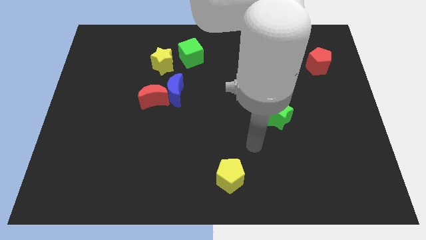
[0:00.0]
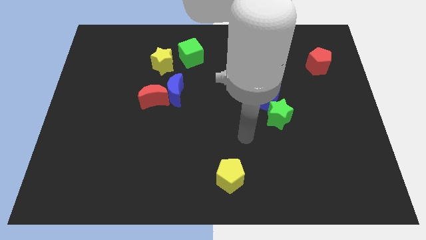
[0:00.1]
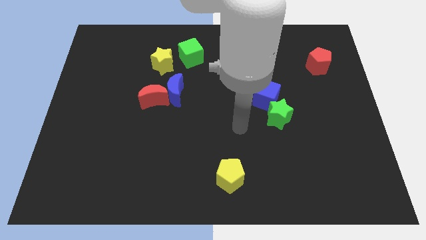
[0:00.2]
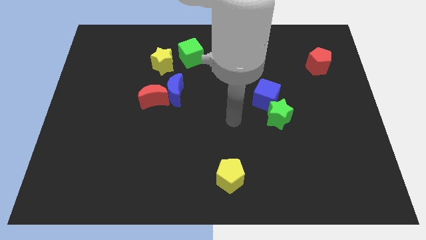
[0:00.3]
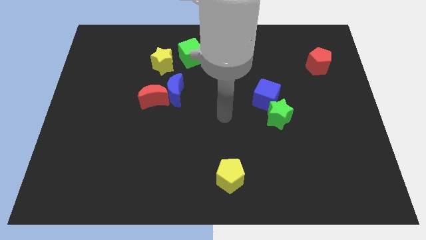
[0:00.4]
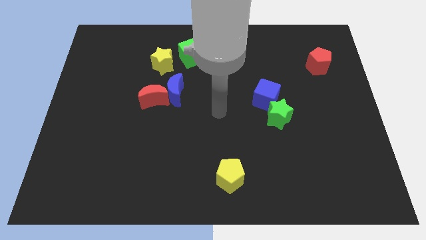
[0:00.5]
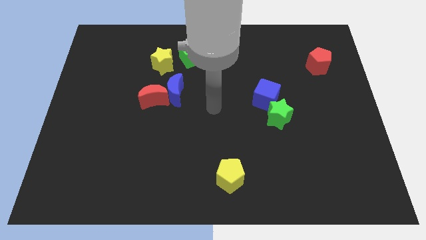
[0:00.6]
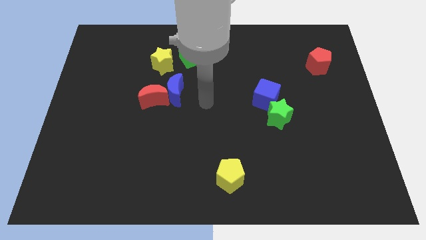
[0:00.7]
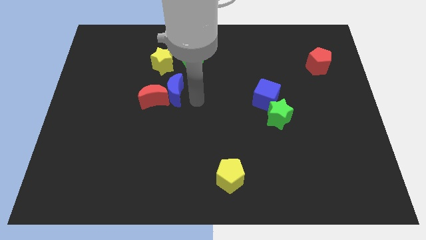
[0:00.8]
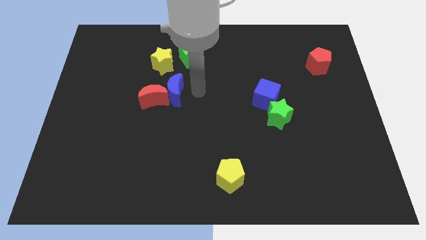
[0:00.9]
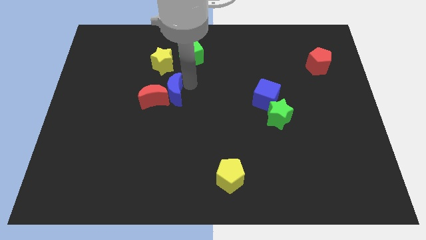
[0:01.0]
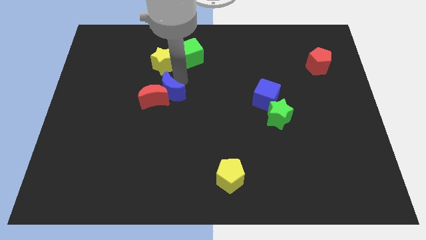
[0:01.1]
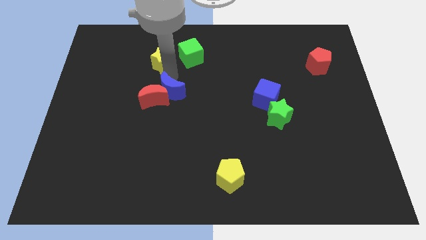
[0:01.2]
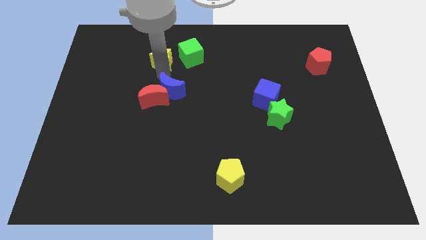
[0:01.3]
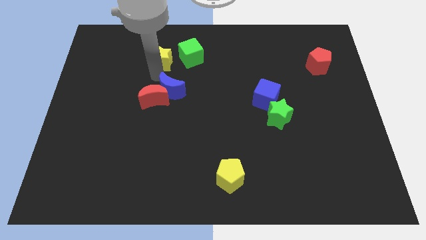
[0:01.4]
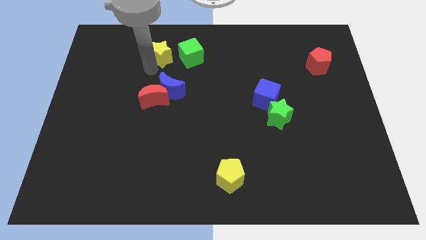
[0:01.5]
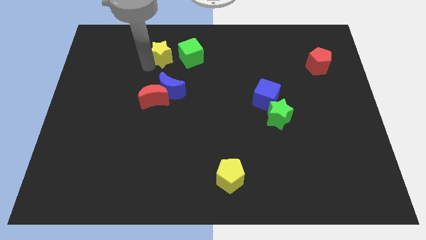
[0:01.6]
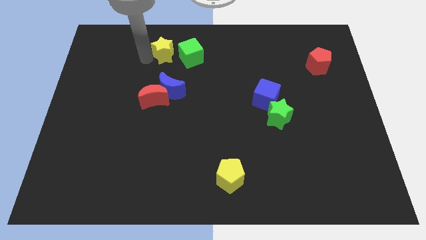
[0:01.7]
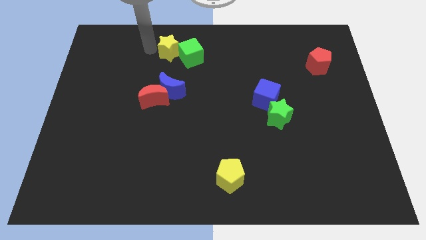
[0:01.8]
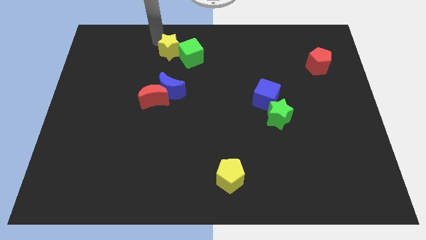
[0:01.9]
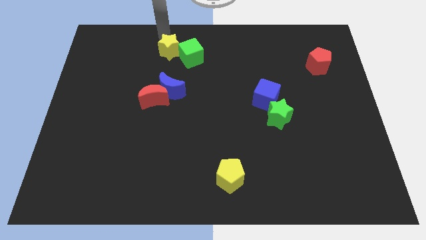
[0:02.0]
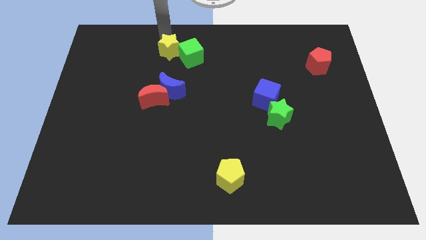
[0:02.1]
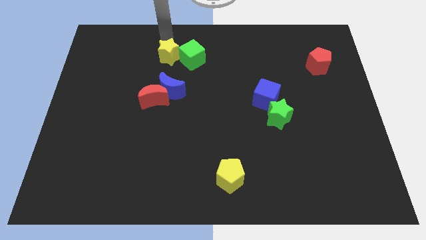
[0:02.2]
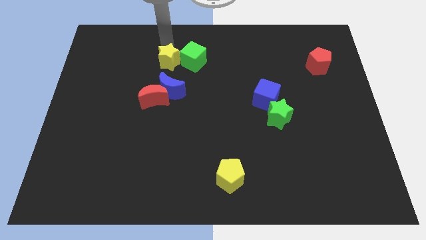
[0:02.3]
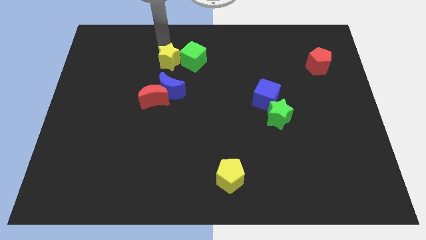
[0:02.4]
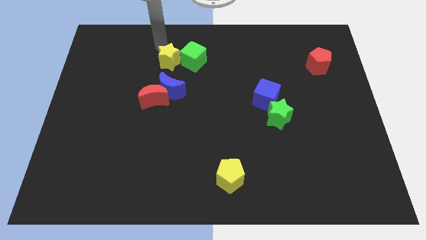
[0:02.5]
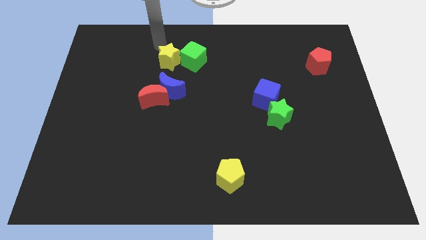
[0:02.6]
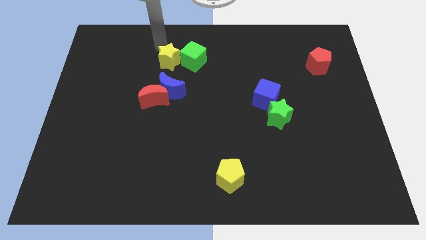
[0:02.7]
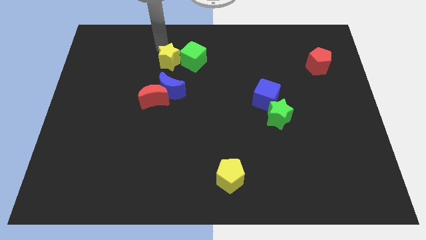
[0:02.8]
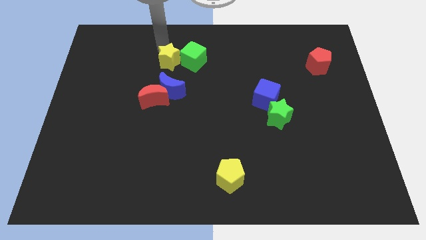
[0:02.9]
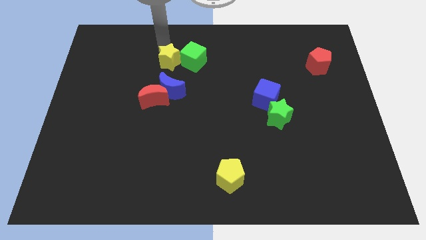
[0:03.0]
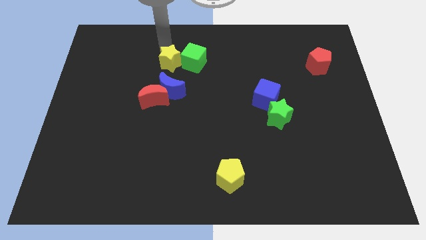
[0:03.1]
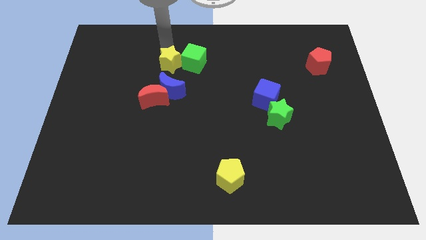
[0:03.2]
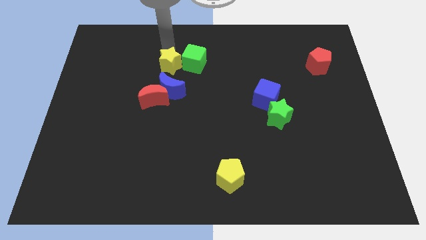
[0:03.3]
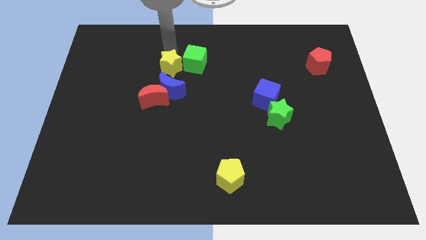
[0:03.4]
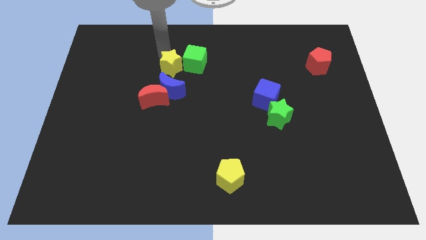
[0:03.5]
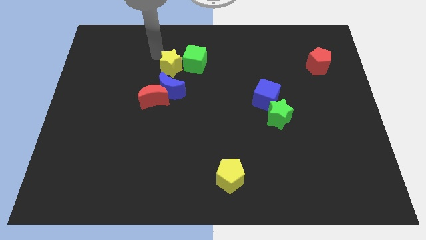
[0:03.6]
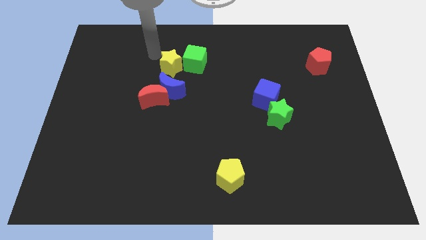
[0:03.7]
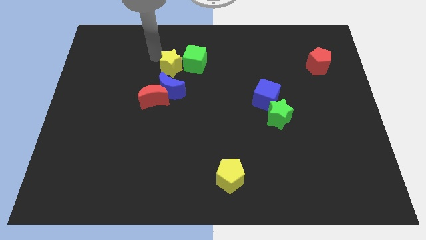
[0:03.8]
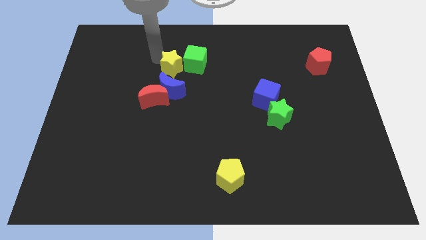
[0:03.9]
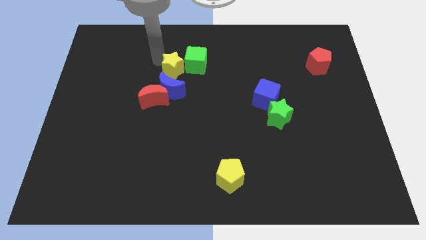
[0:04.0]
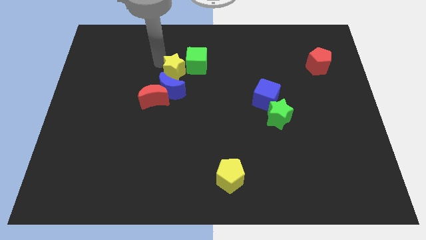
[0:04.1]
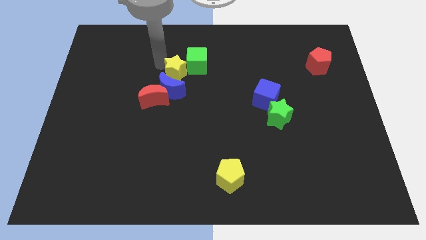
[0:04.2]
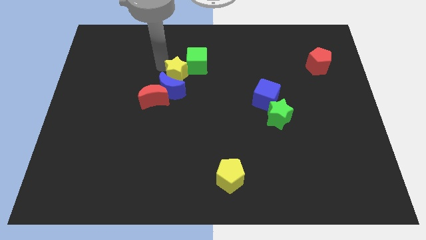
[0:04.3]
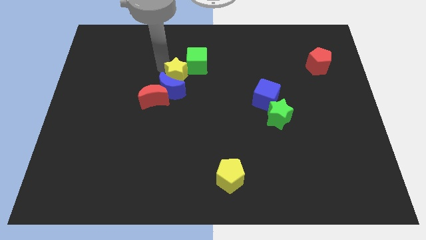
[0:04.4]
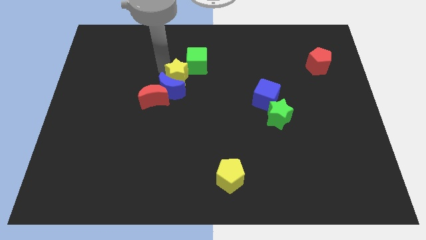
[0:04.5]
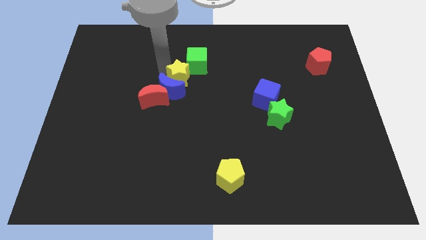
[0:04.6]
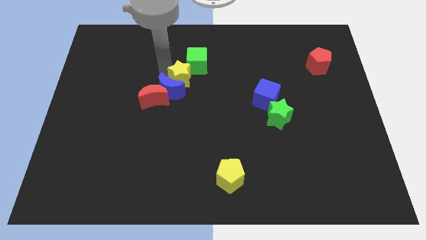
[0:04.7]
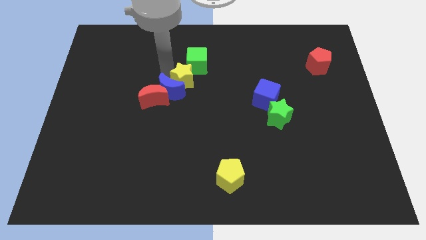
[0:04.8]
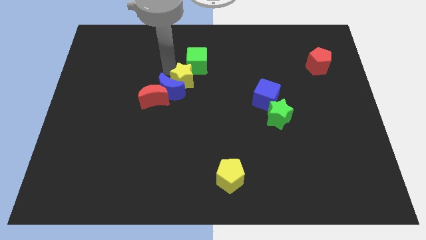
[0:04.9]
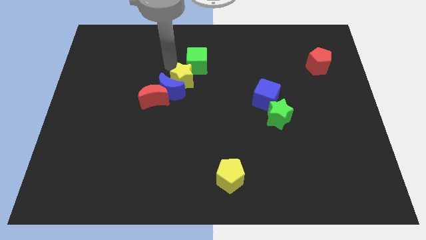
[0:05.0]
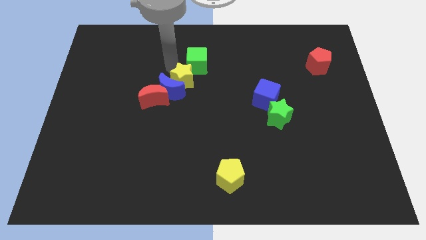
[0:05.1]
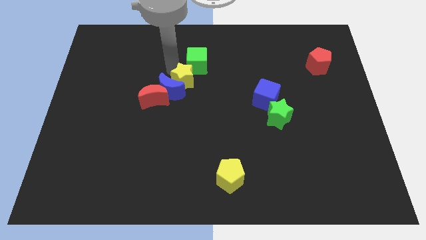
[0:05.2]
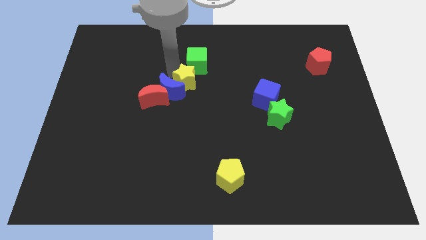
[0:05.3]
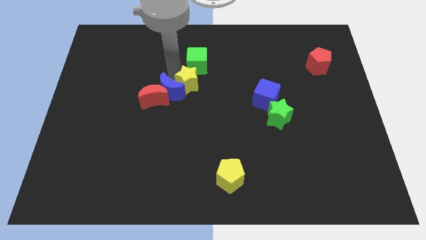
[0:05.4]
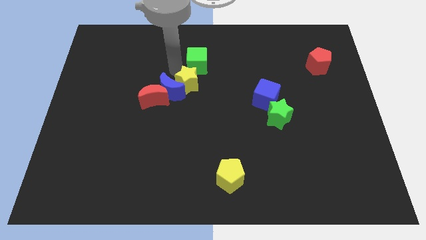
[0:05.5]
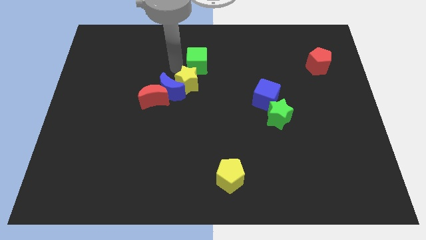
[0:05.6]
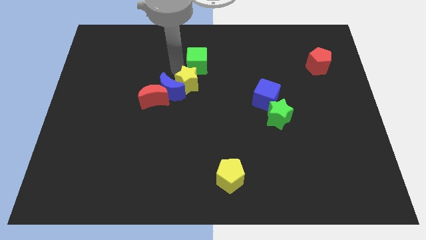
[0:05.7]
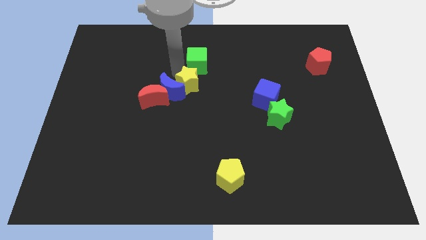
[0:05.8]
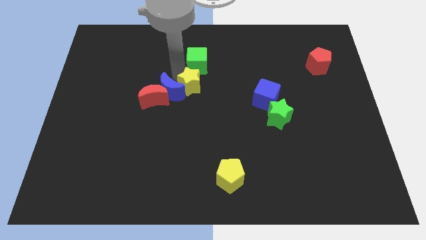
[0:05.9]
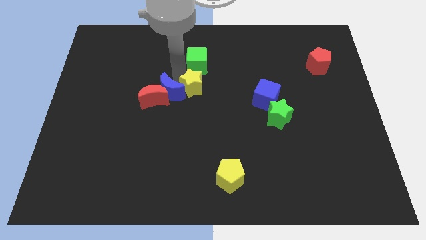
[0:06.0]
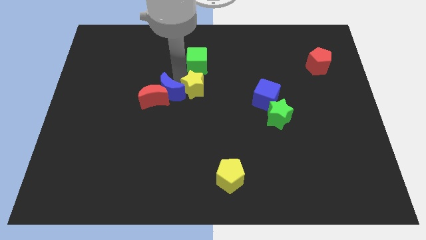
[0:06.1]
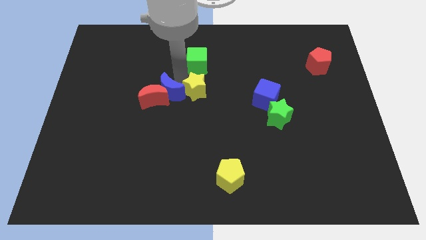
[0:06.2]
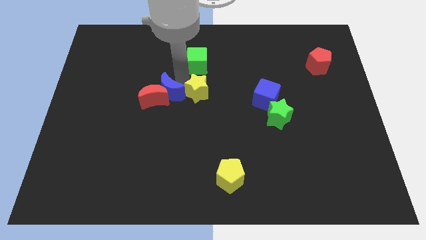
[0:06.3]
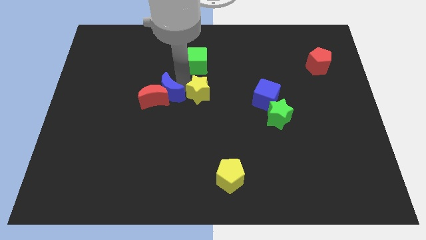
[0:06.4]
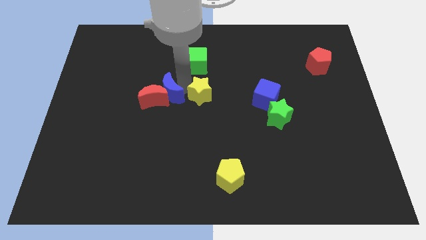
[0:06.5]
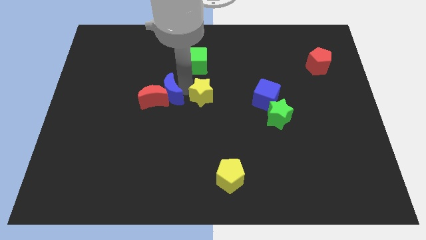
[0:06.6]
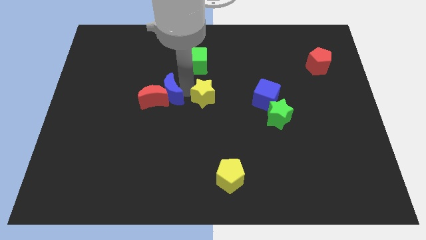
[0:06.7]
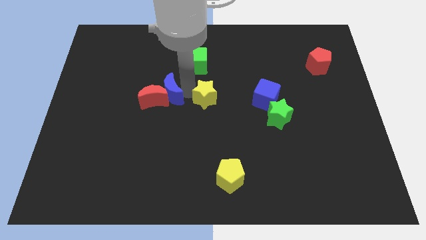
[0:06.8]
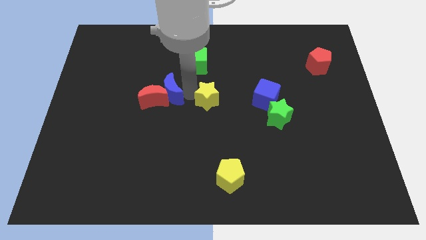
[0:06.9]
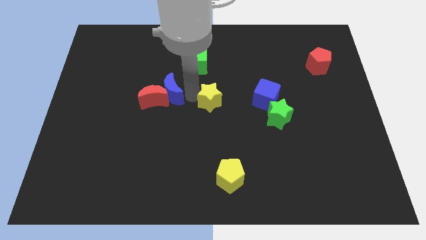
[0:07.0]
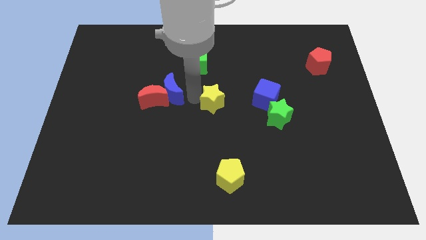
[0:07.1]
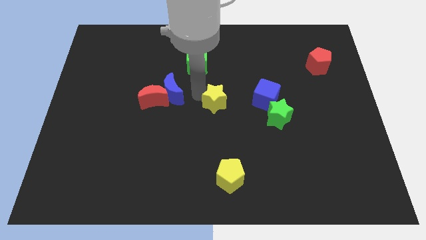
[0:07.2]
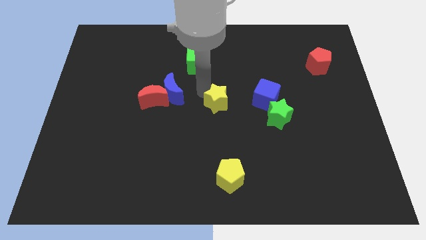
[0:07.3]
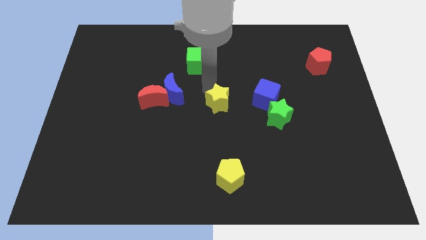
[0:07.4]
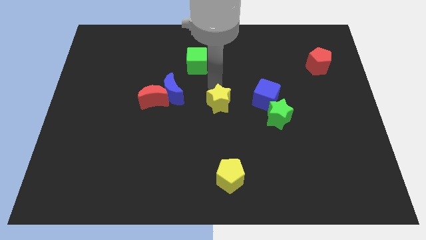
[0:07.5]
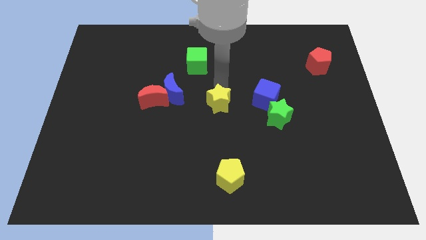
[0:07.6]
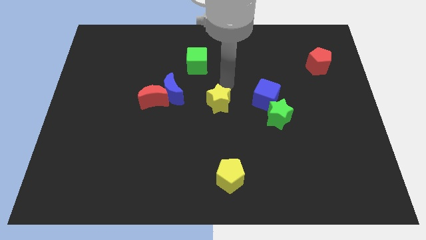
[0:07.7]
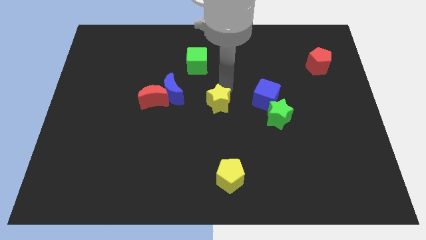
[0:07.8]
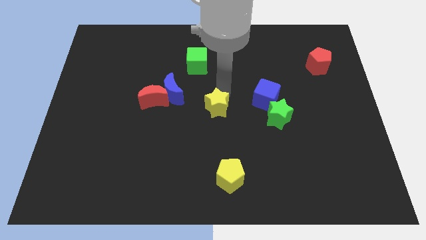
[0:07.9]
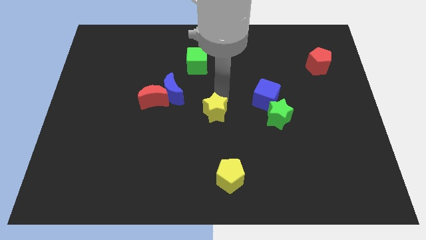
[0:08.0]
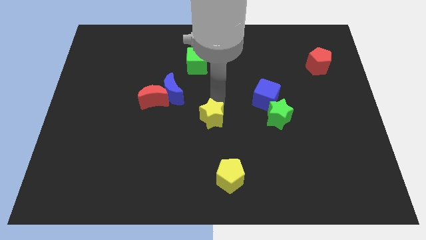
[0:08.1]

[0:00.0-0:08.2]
put the yellow star above the yellow pentagon
